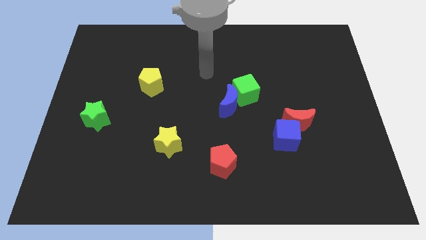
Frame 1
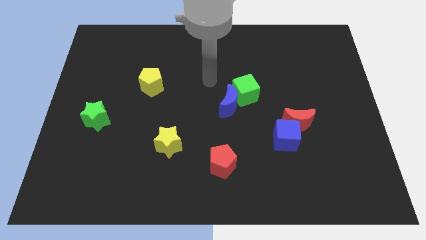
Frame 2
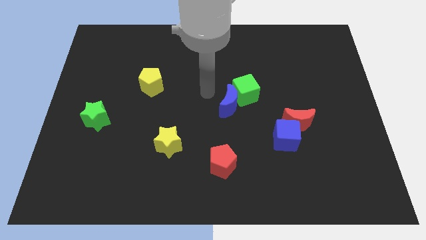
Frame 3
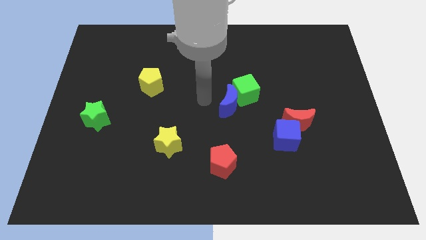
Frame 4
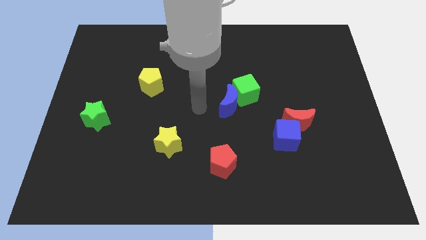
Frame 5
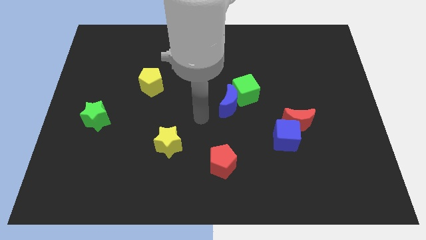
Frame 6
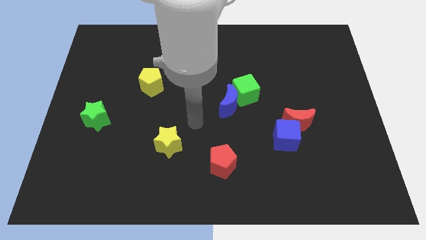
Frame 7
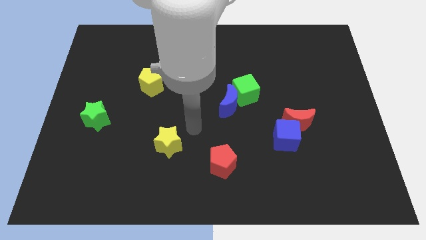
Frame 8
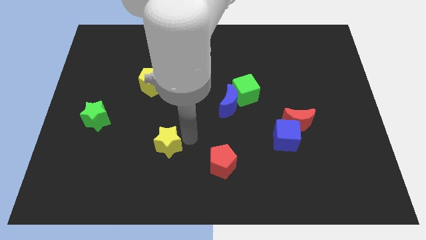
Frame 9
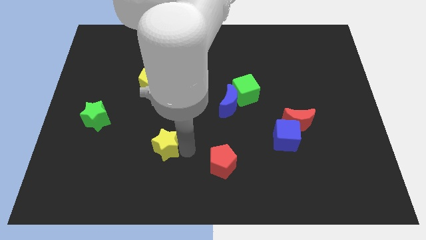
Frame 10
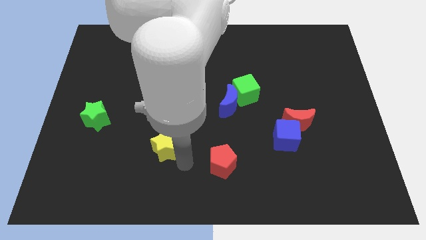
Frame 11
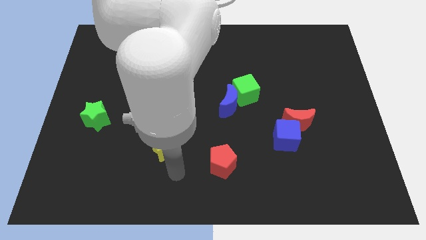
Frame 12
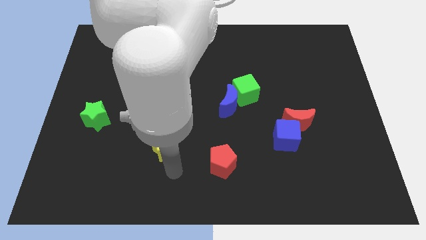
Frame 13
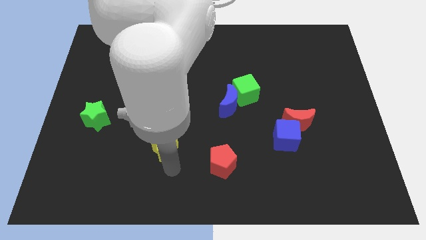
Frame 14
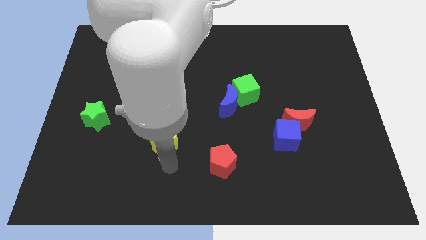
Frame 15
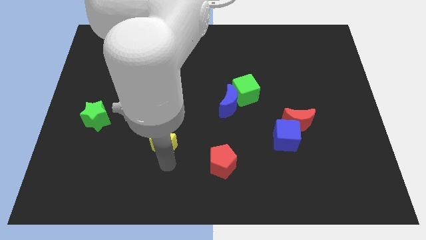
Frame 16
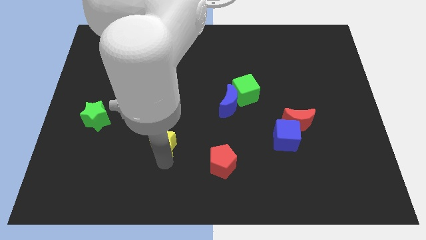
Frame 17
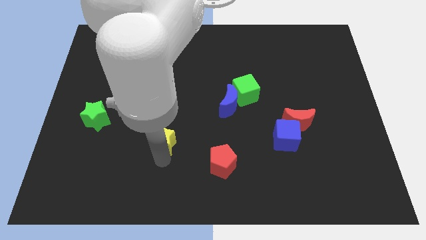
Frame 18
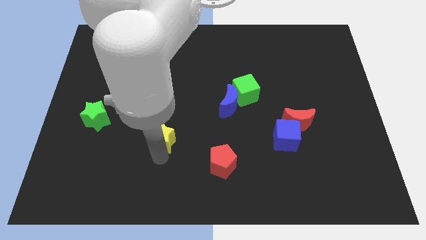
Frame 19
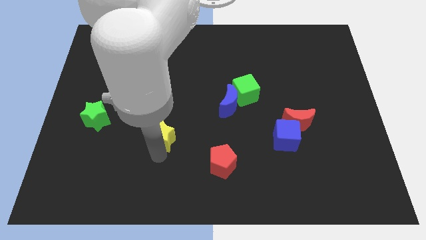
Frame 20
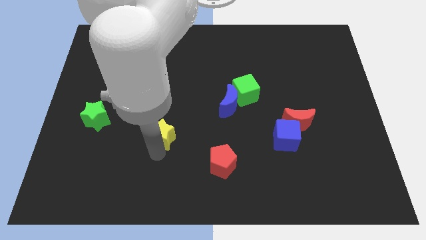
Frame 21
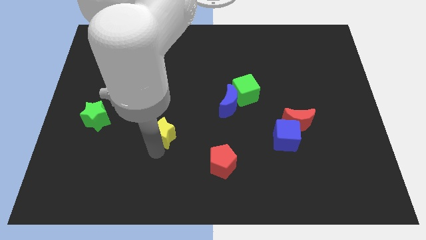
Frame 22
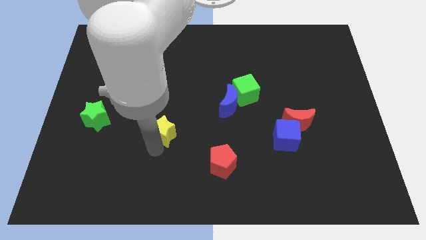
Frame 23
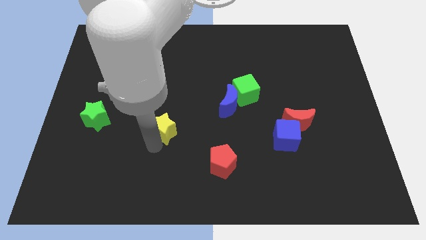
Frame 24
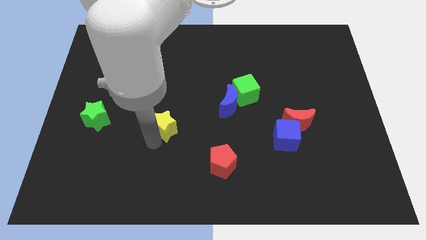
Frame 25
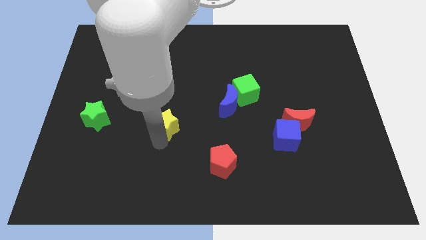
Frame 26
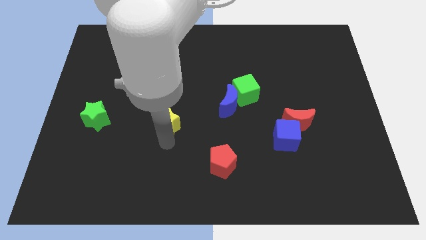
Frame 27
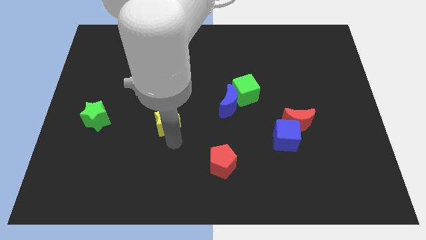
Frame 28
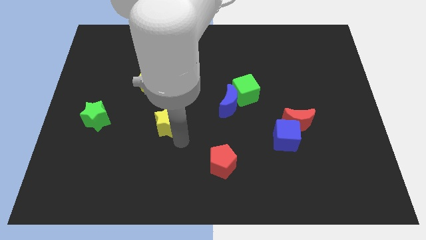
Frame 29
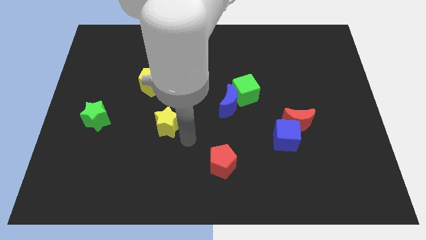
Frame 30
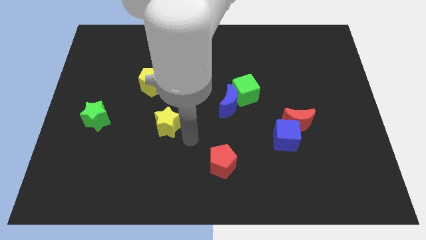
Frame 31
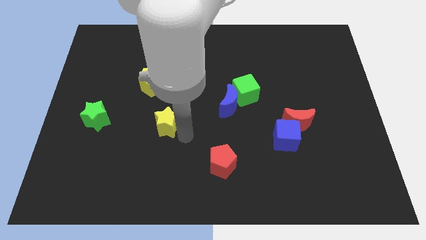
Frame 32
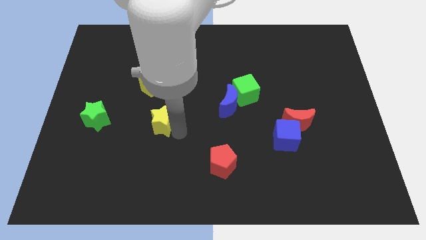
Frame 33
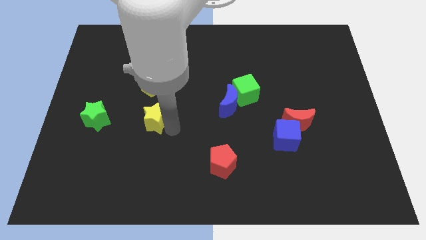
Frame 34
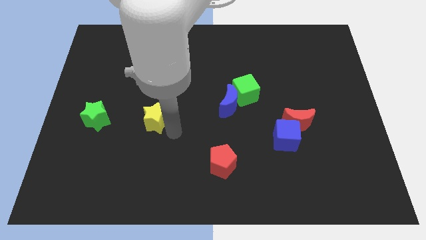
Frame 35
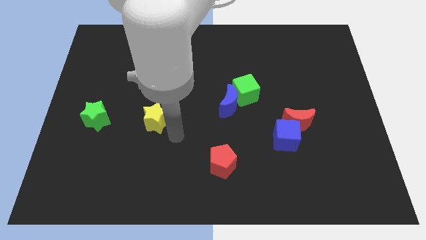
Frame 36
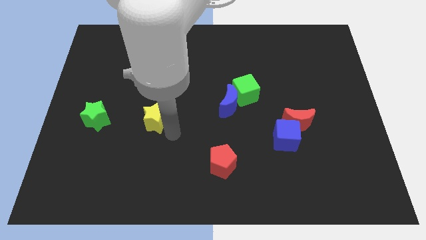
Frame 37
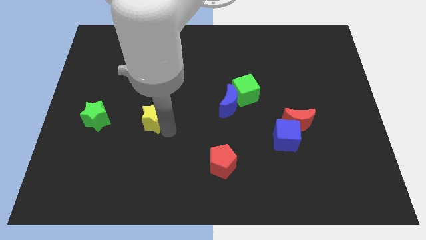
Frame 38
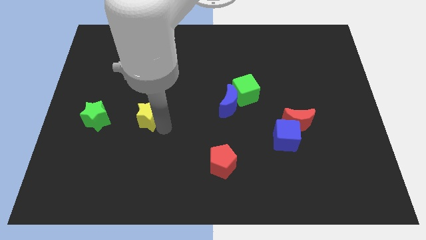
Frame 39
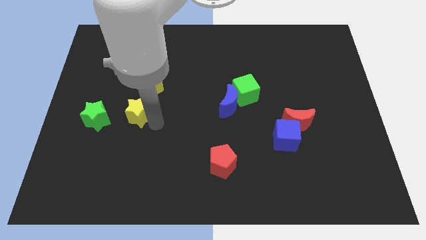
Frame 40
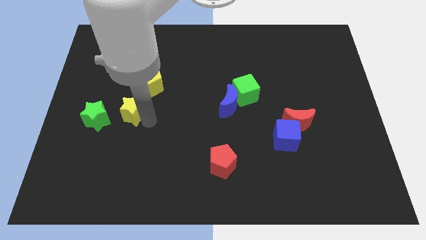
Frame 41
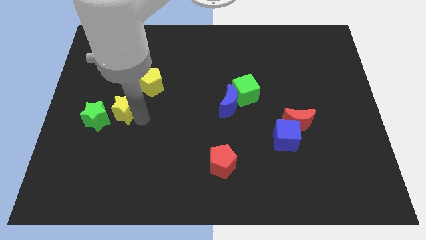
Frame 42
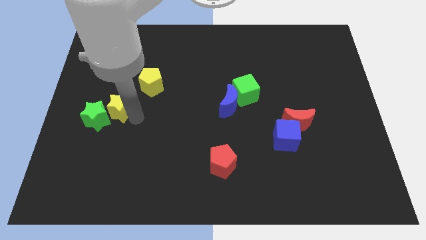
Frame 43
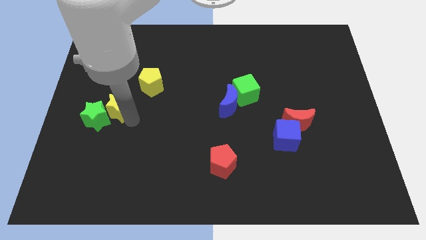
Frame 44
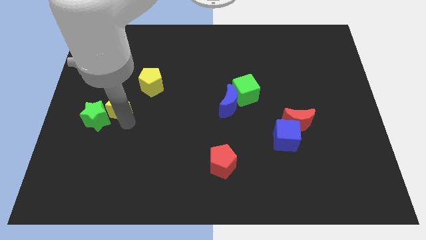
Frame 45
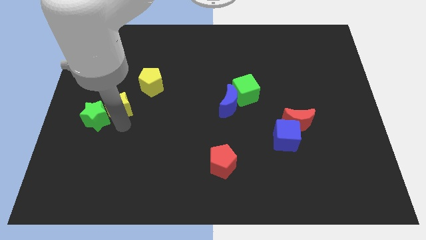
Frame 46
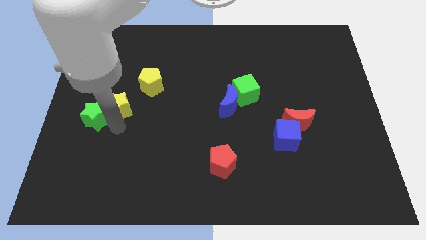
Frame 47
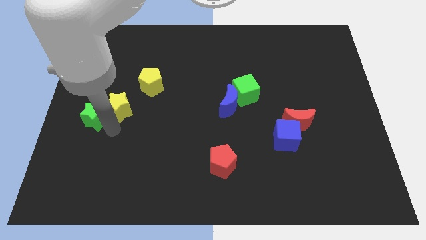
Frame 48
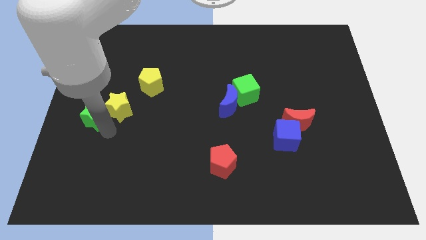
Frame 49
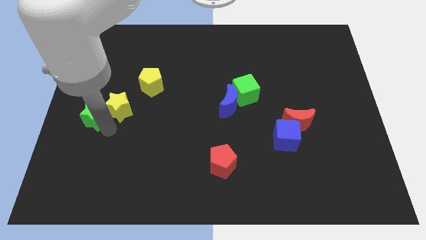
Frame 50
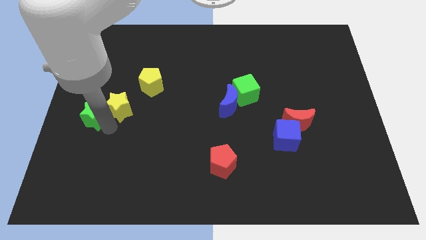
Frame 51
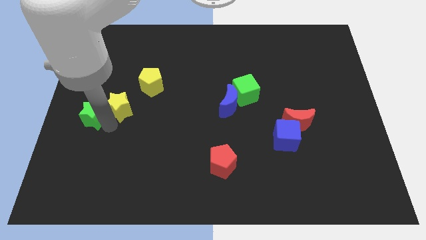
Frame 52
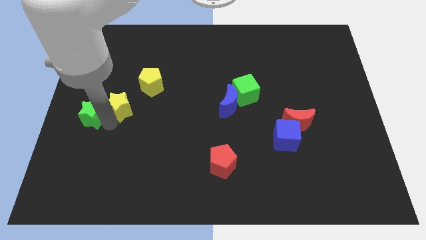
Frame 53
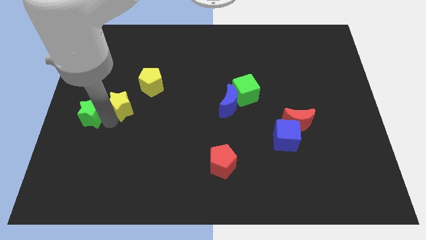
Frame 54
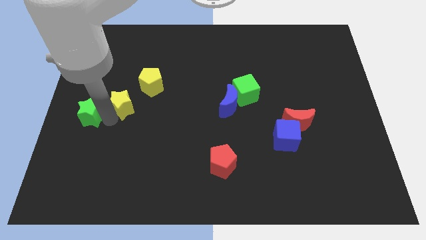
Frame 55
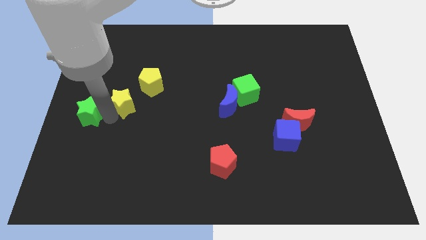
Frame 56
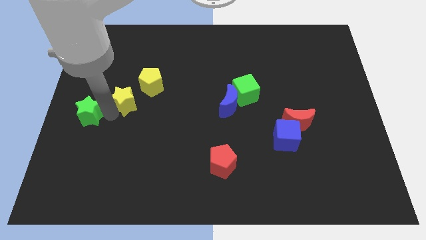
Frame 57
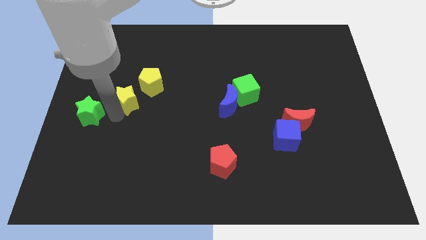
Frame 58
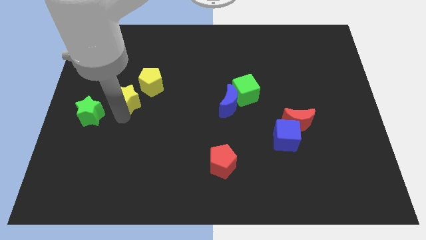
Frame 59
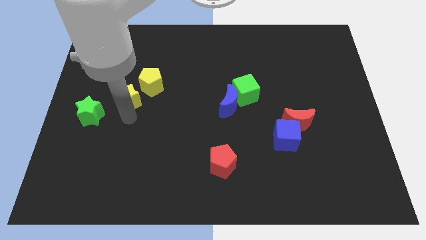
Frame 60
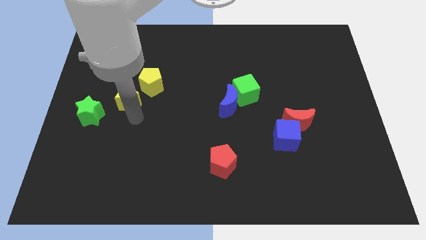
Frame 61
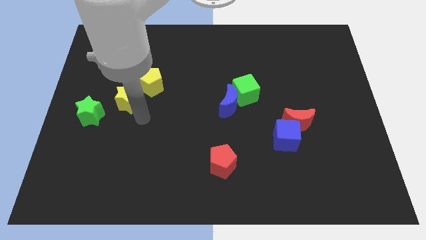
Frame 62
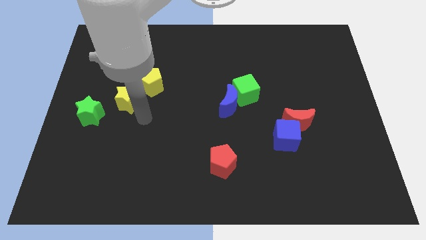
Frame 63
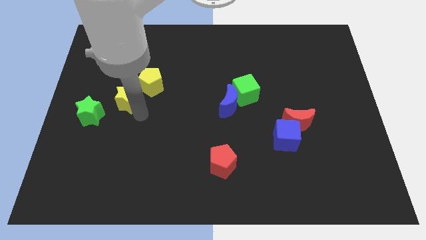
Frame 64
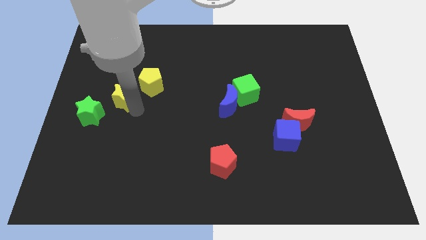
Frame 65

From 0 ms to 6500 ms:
move the yellow star to the left of the yellow pentagon

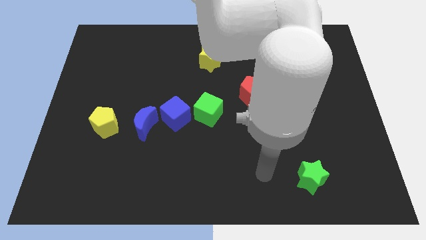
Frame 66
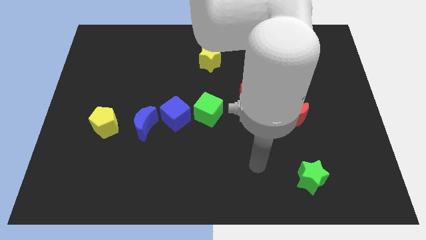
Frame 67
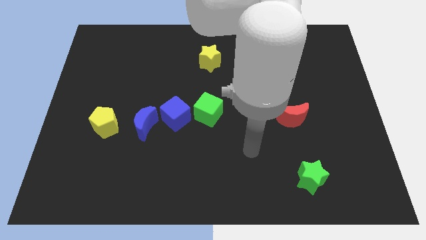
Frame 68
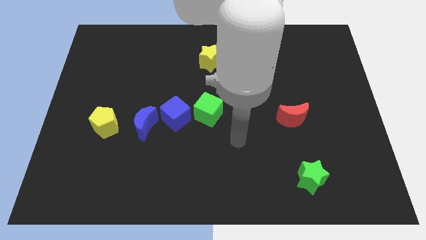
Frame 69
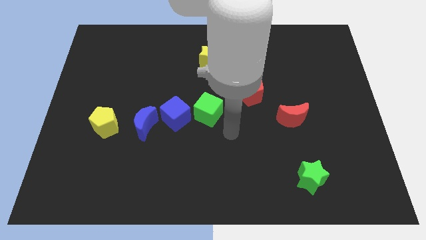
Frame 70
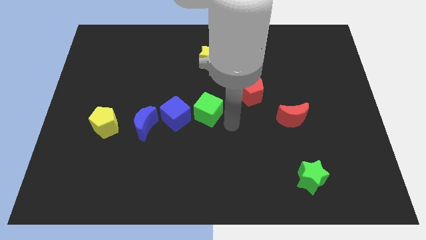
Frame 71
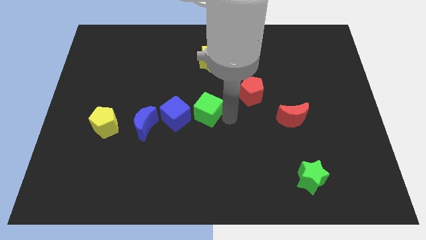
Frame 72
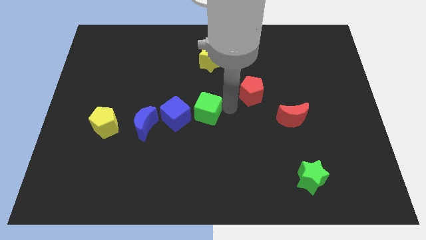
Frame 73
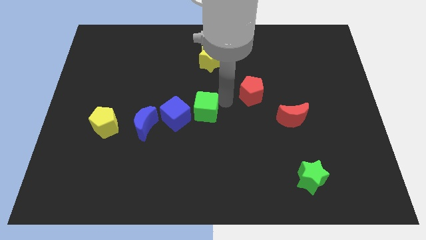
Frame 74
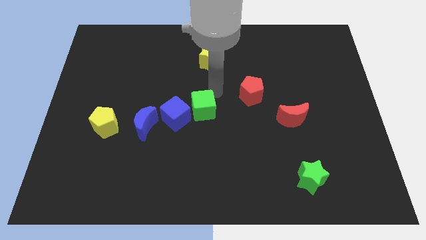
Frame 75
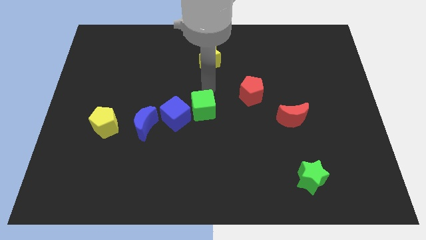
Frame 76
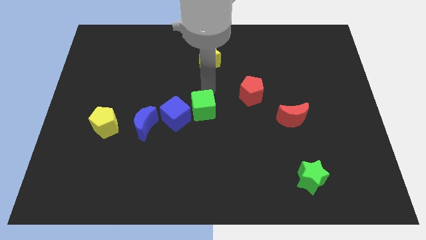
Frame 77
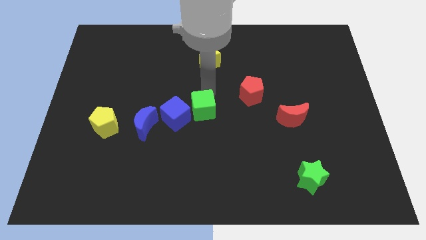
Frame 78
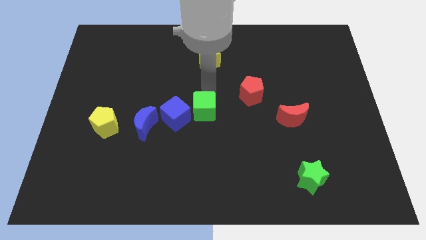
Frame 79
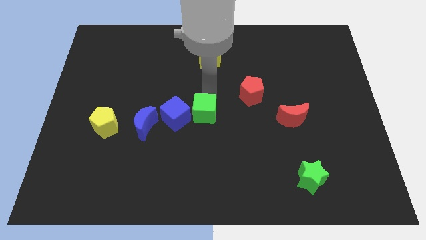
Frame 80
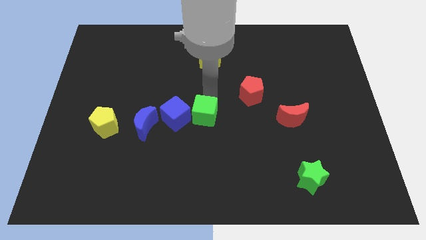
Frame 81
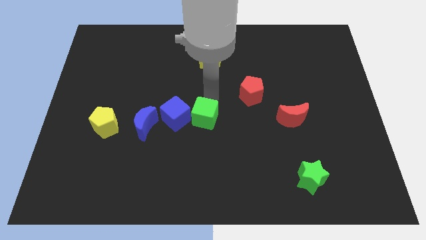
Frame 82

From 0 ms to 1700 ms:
push the green cube to the bottom right side of the blue cube
